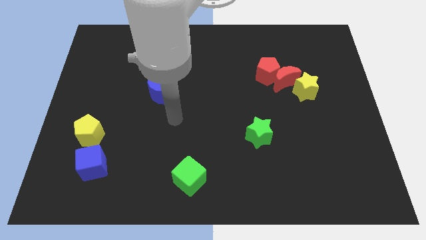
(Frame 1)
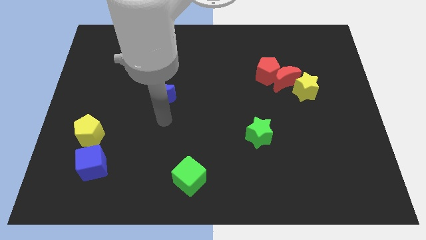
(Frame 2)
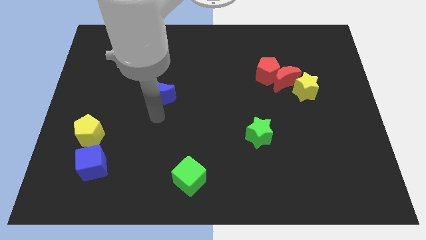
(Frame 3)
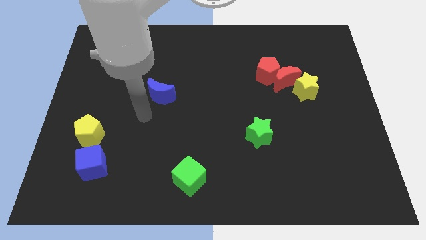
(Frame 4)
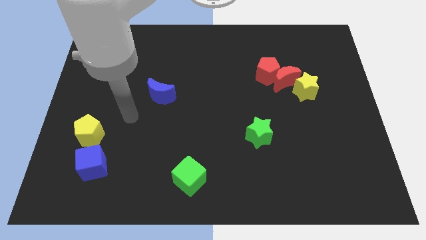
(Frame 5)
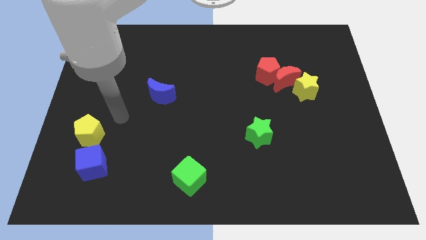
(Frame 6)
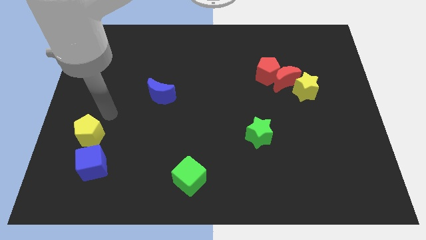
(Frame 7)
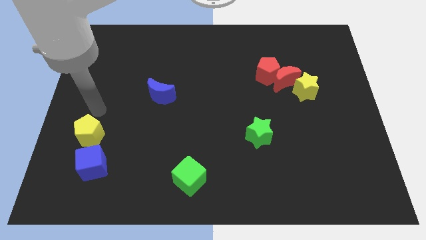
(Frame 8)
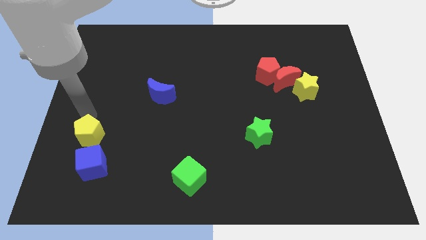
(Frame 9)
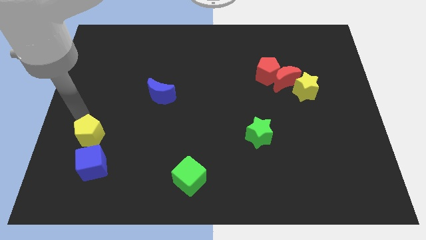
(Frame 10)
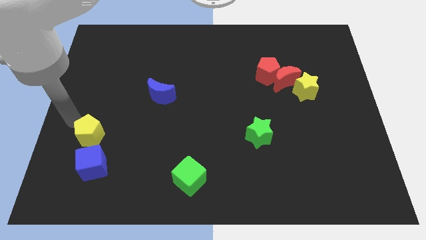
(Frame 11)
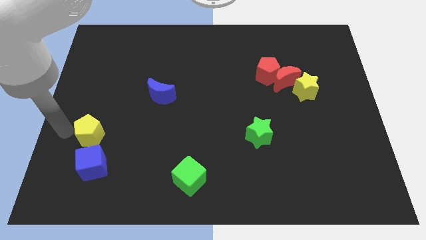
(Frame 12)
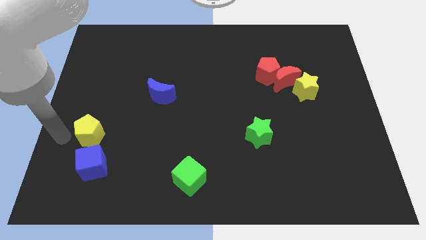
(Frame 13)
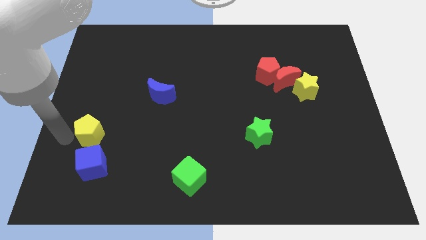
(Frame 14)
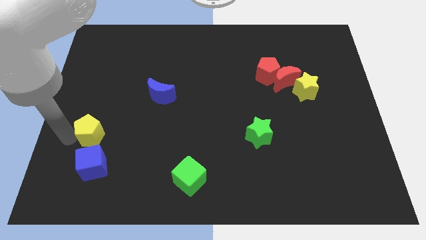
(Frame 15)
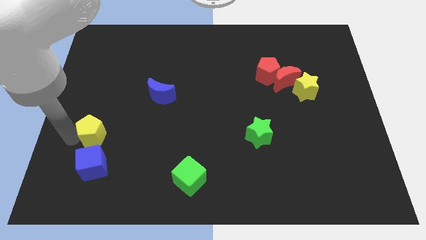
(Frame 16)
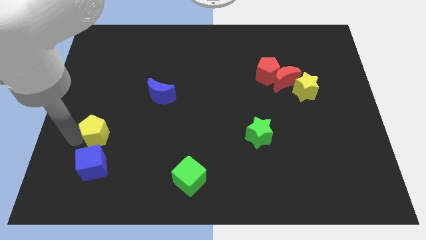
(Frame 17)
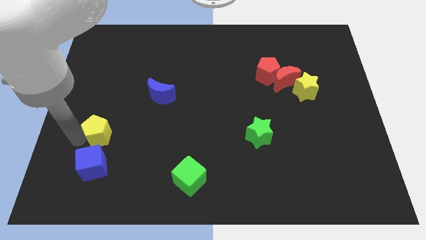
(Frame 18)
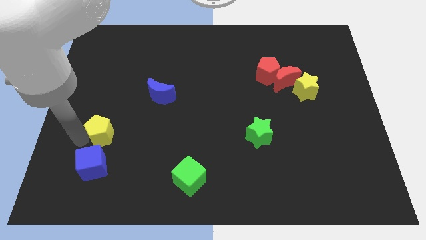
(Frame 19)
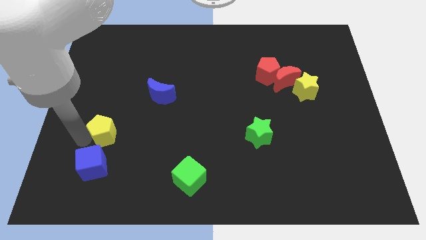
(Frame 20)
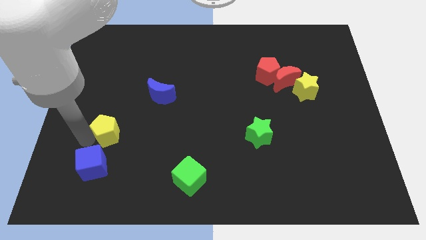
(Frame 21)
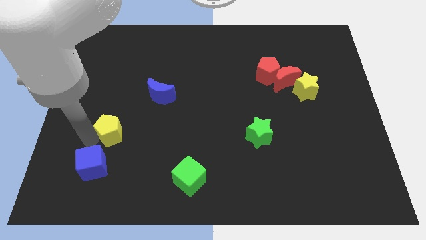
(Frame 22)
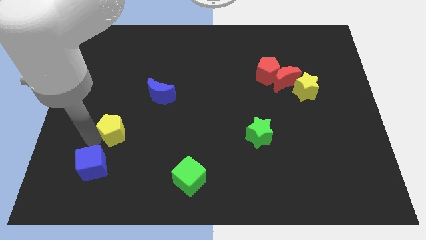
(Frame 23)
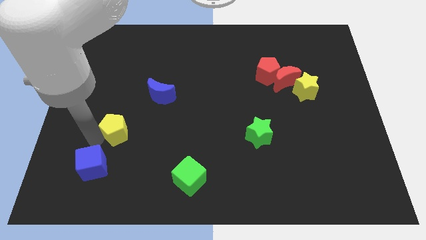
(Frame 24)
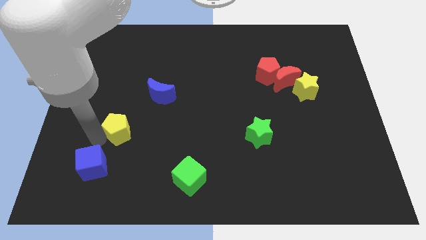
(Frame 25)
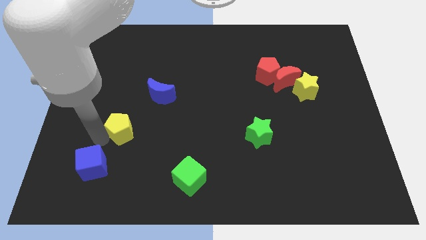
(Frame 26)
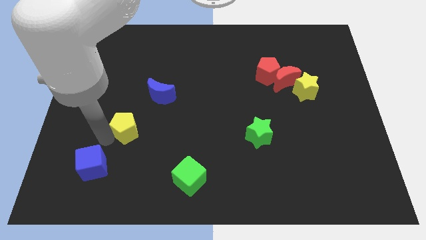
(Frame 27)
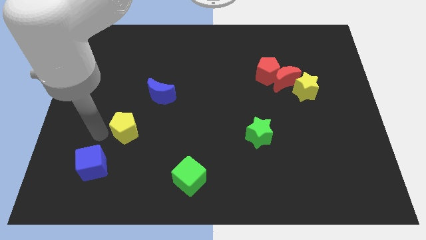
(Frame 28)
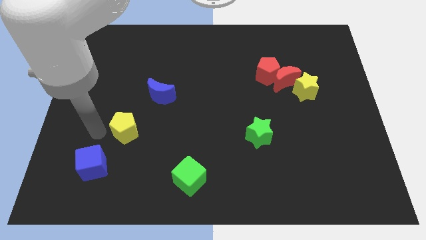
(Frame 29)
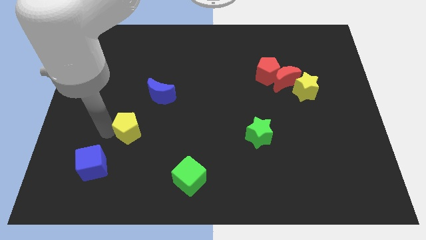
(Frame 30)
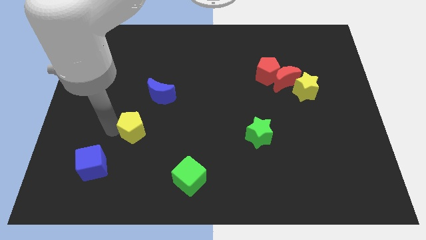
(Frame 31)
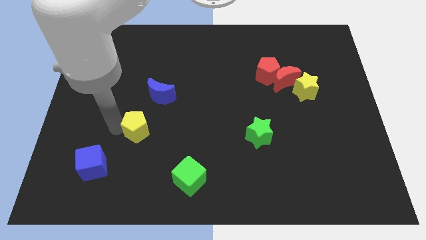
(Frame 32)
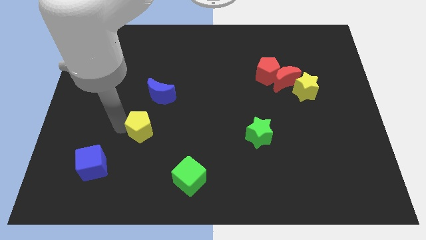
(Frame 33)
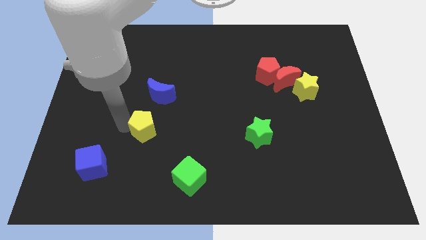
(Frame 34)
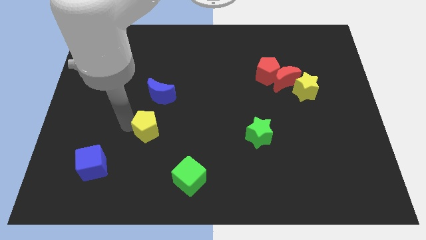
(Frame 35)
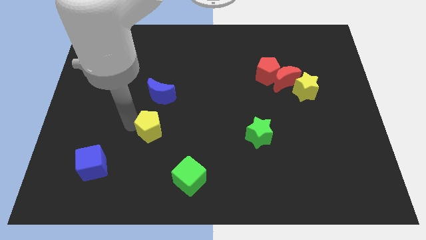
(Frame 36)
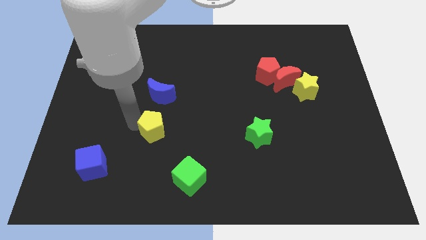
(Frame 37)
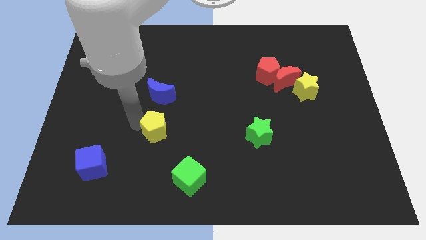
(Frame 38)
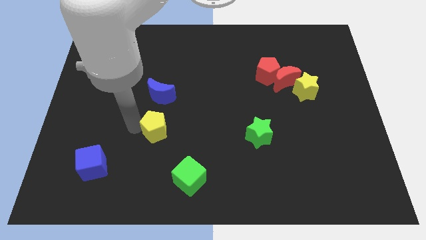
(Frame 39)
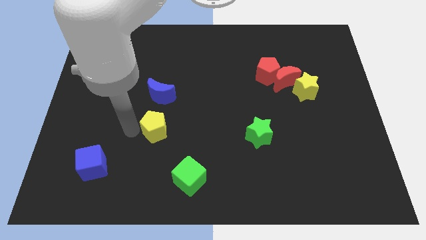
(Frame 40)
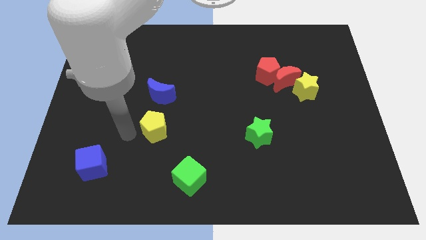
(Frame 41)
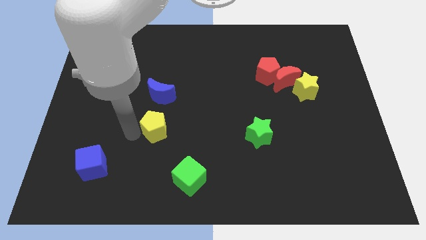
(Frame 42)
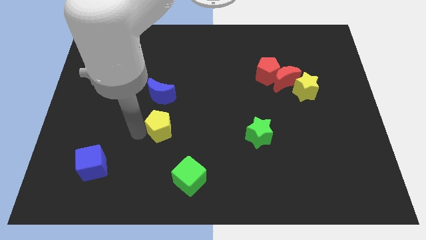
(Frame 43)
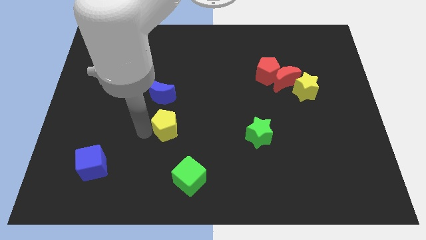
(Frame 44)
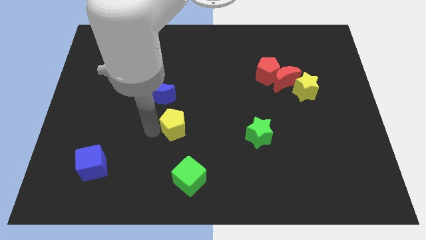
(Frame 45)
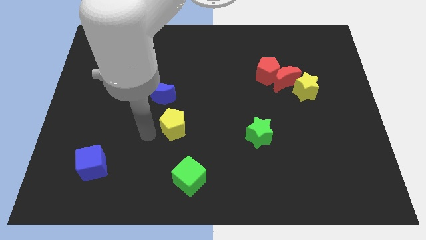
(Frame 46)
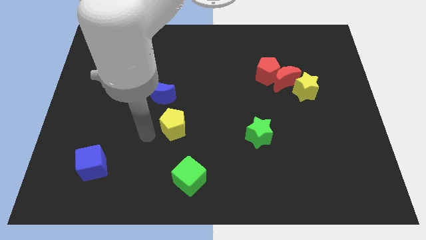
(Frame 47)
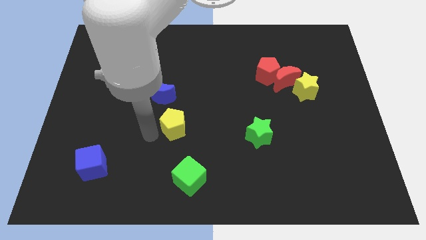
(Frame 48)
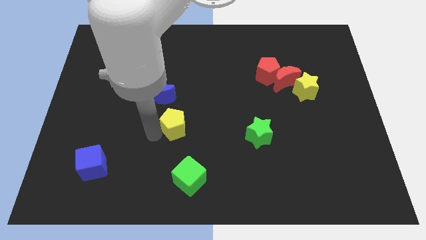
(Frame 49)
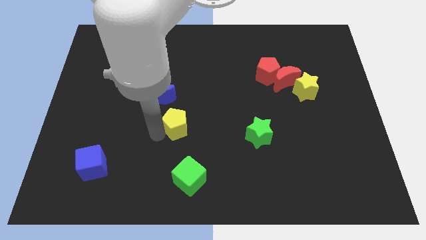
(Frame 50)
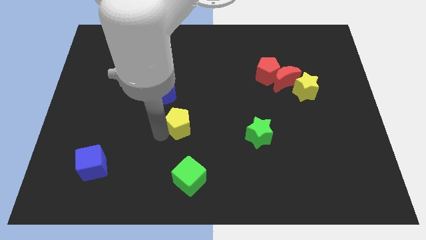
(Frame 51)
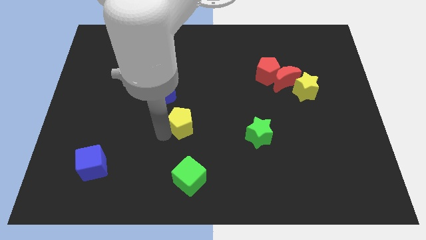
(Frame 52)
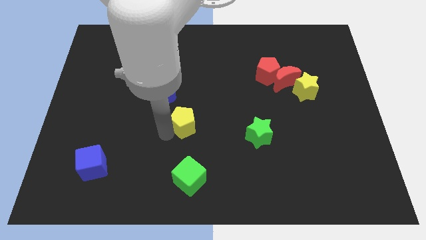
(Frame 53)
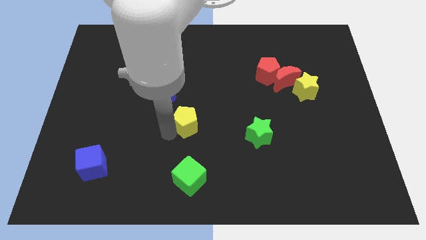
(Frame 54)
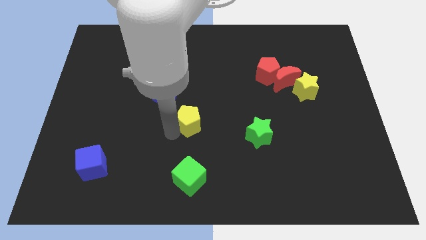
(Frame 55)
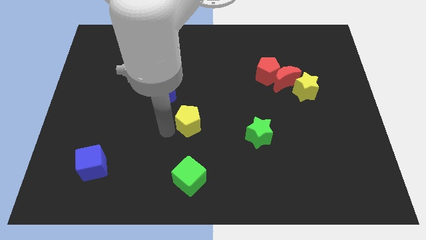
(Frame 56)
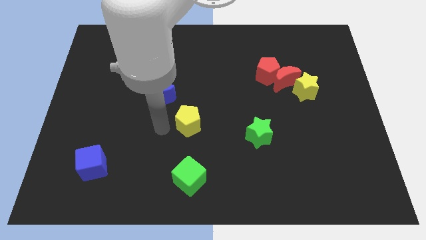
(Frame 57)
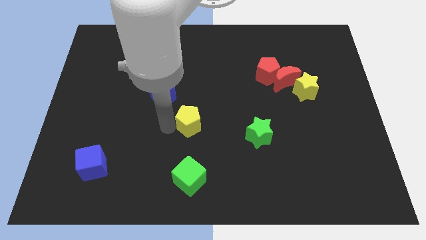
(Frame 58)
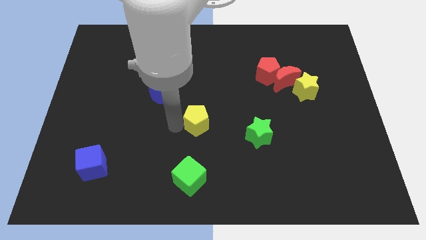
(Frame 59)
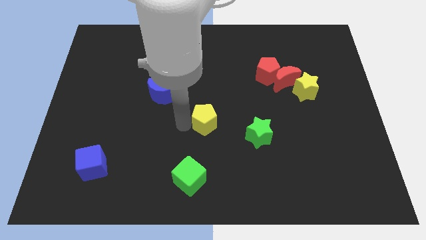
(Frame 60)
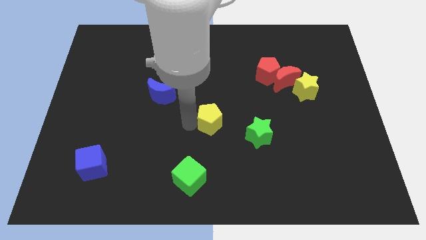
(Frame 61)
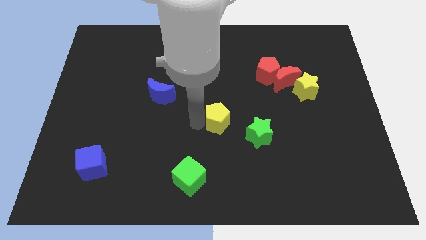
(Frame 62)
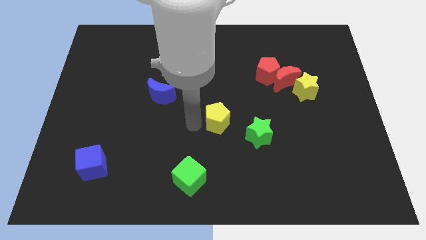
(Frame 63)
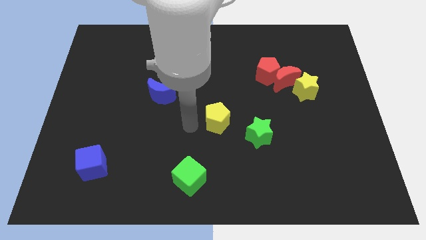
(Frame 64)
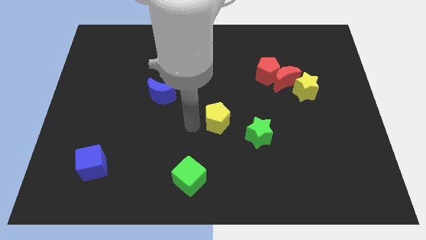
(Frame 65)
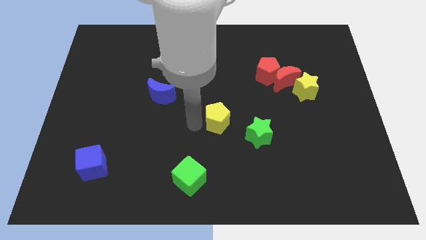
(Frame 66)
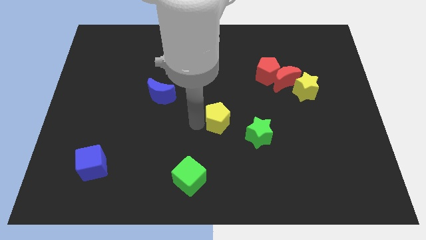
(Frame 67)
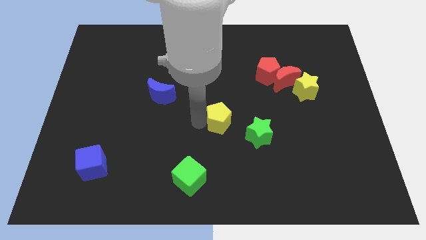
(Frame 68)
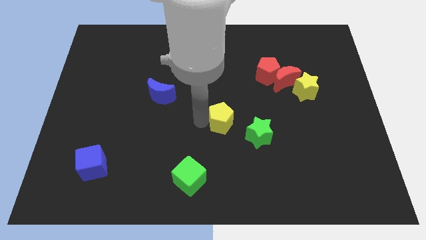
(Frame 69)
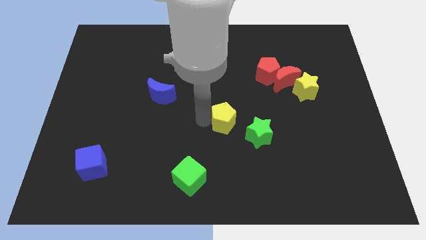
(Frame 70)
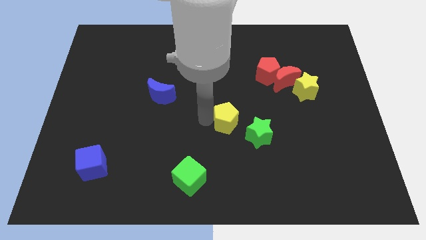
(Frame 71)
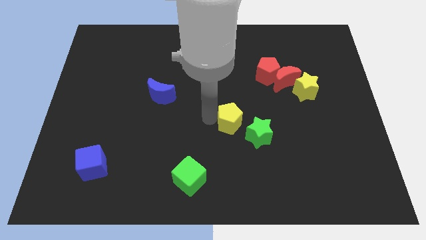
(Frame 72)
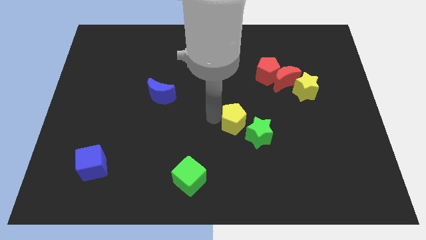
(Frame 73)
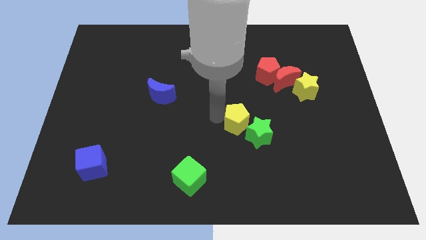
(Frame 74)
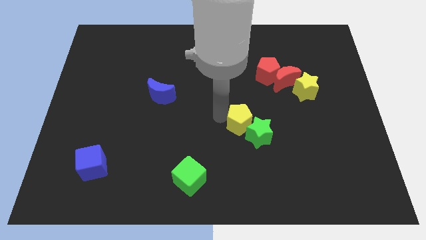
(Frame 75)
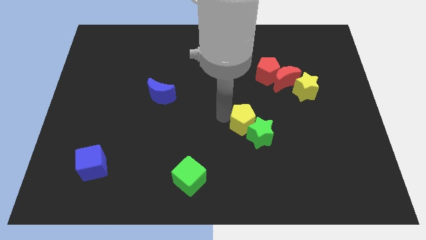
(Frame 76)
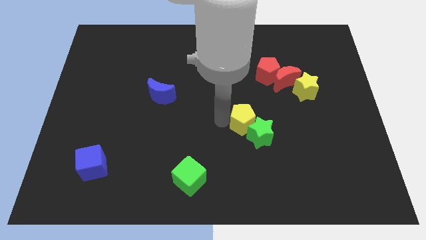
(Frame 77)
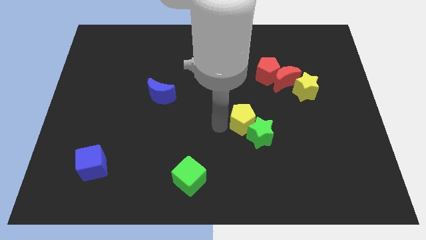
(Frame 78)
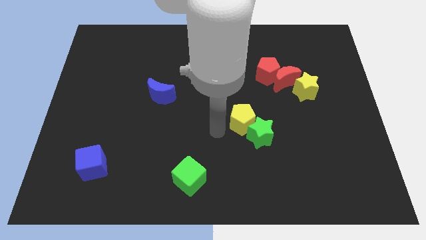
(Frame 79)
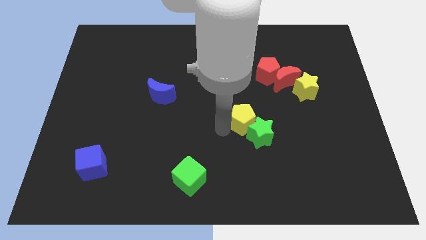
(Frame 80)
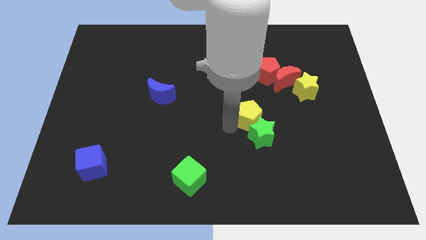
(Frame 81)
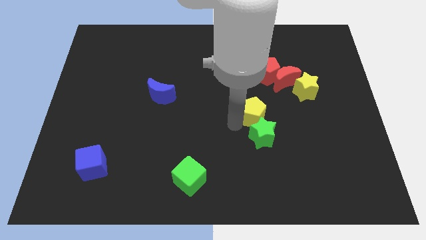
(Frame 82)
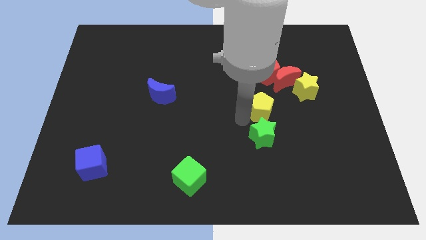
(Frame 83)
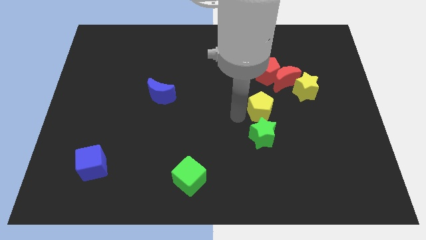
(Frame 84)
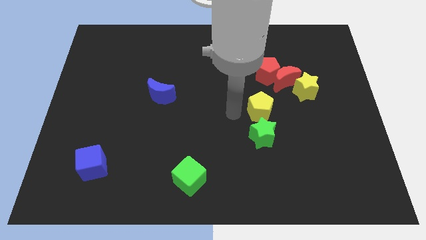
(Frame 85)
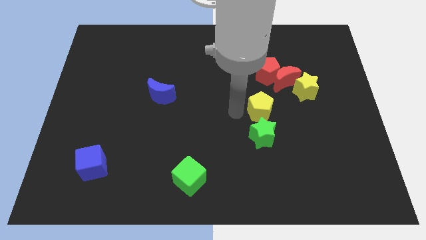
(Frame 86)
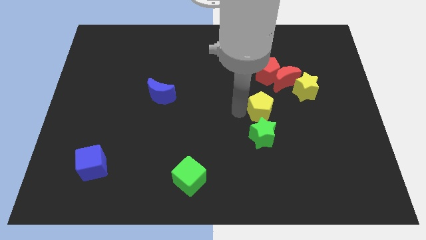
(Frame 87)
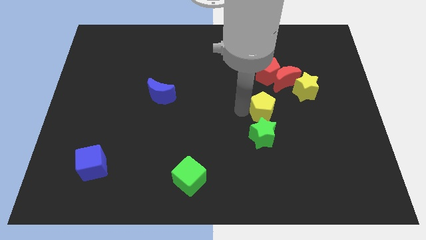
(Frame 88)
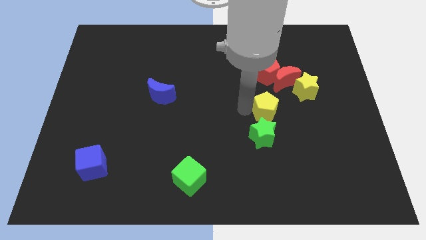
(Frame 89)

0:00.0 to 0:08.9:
push the yellow pentagon to the bottom left of the yellow star
